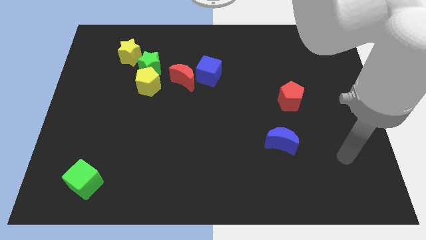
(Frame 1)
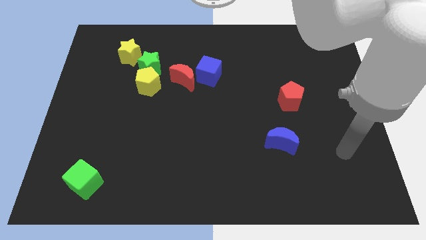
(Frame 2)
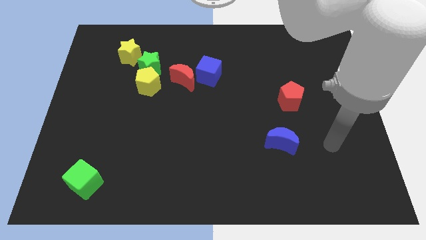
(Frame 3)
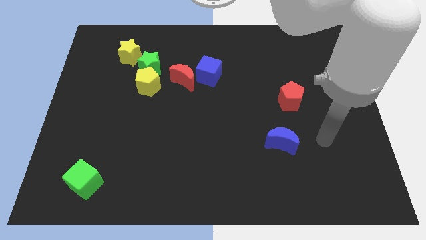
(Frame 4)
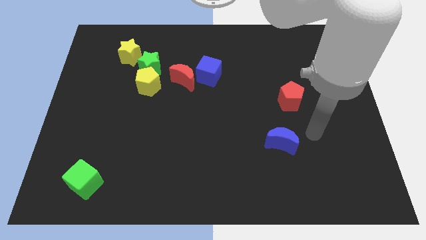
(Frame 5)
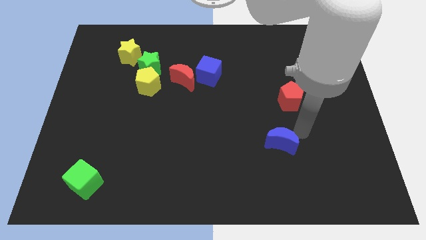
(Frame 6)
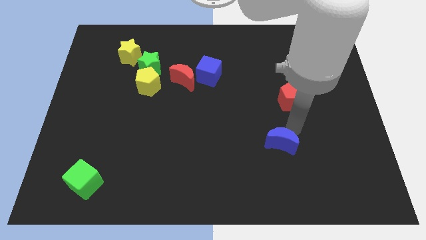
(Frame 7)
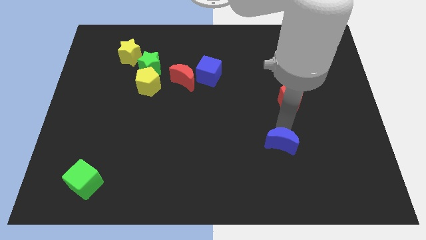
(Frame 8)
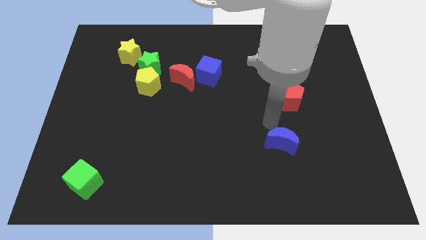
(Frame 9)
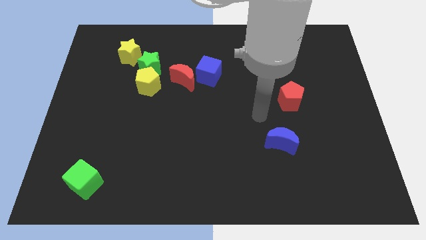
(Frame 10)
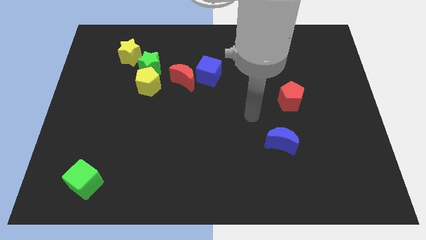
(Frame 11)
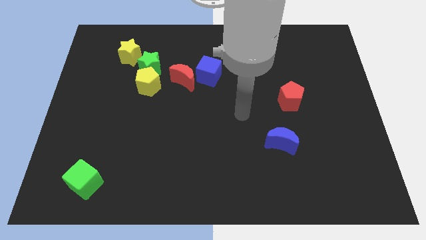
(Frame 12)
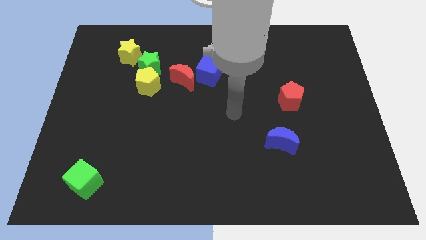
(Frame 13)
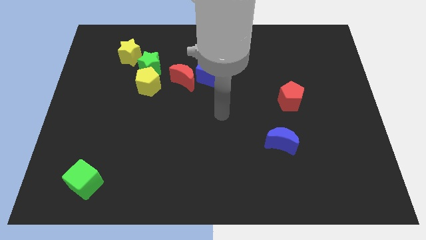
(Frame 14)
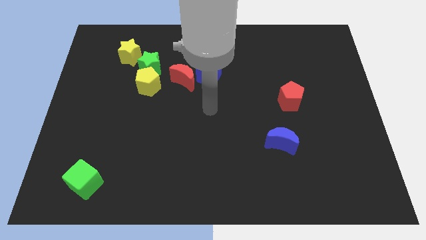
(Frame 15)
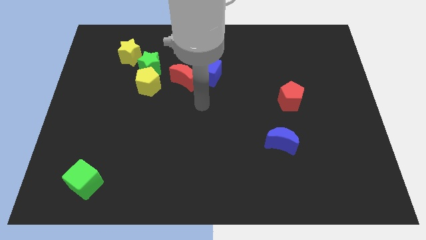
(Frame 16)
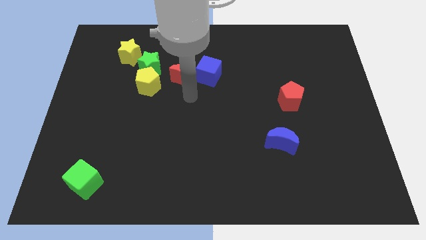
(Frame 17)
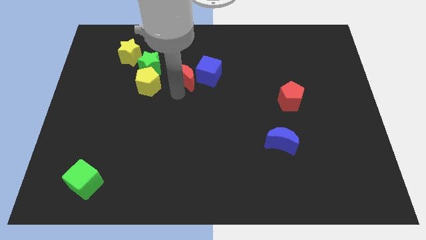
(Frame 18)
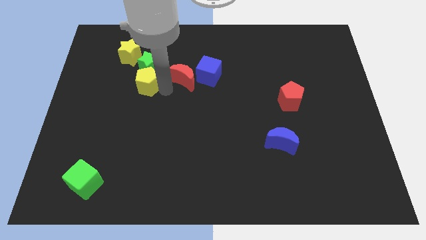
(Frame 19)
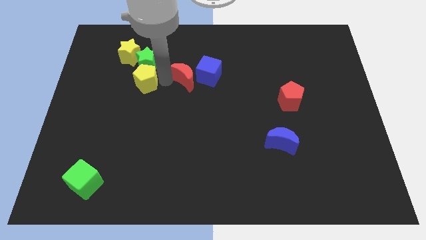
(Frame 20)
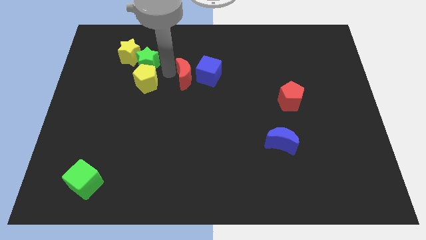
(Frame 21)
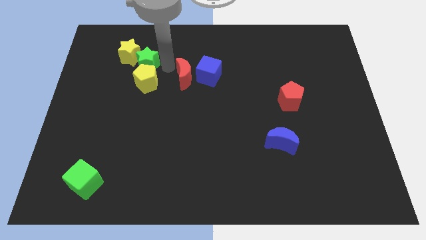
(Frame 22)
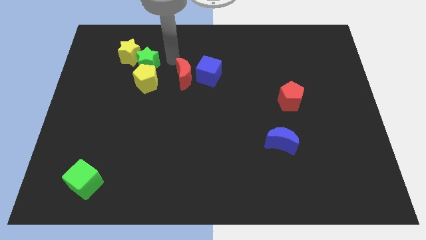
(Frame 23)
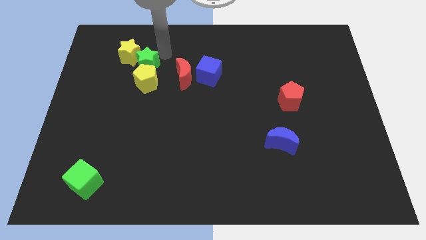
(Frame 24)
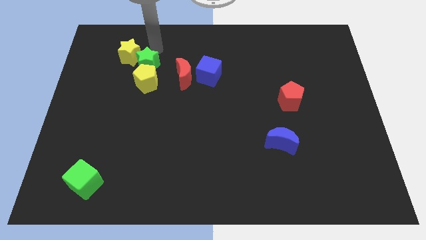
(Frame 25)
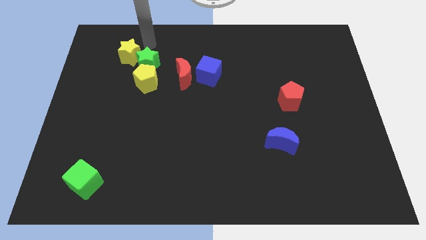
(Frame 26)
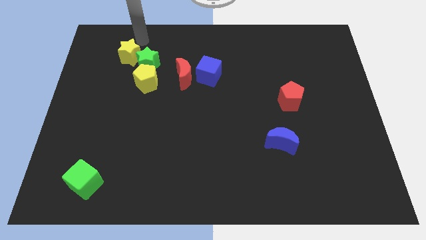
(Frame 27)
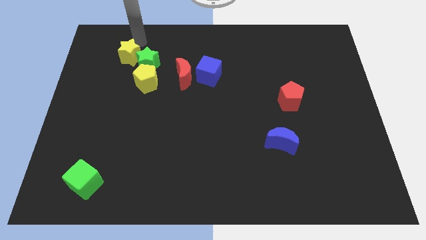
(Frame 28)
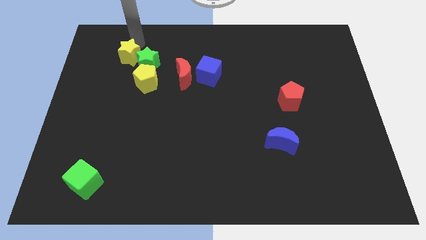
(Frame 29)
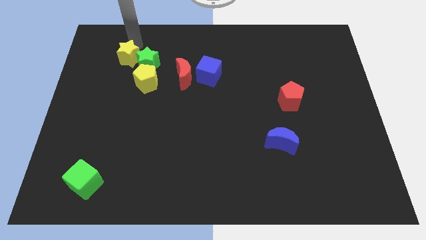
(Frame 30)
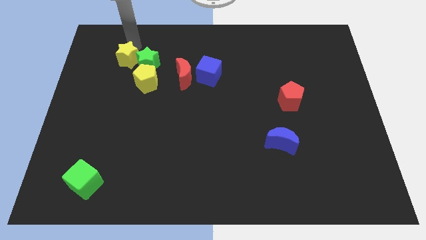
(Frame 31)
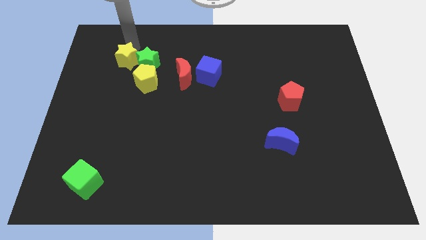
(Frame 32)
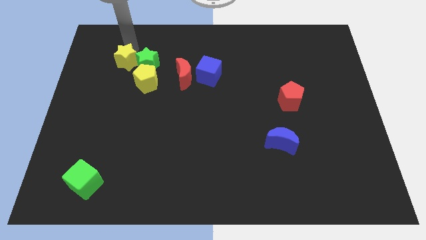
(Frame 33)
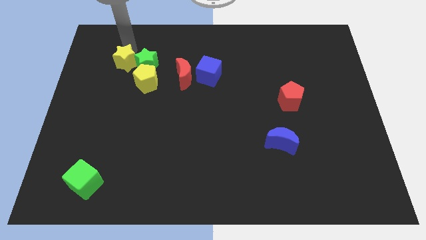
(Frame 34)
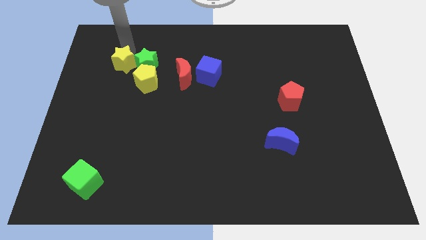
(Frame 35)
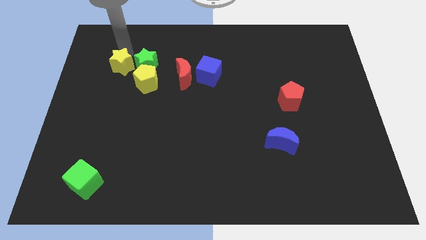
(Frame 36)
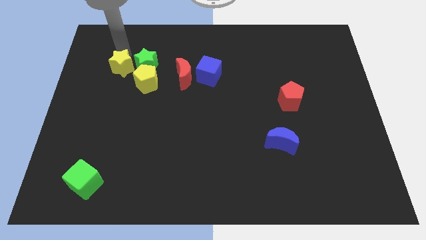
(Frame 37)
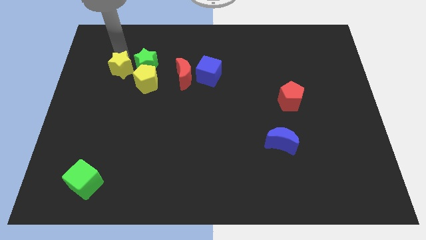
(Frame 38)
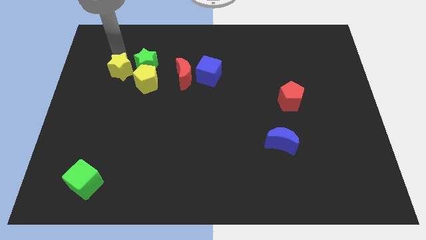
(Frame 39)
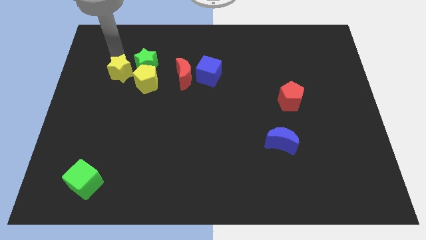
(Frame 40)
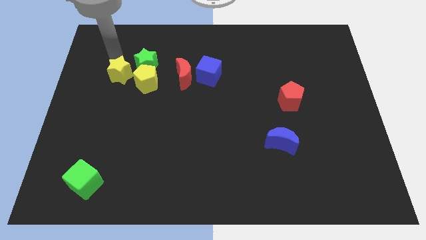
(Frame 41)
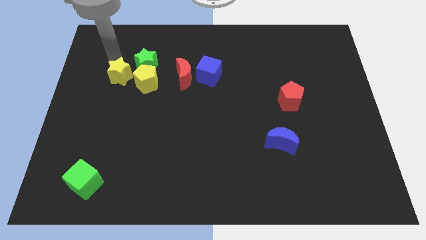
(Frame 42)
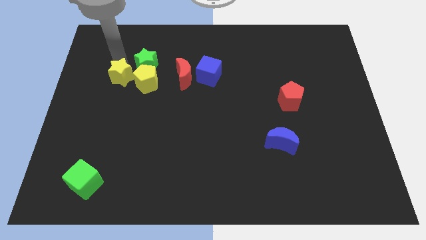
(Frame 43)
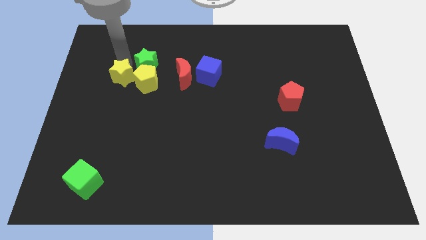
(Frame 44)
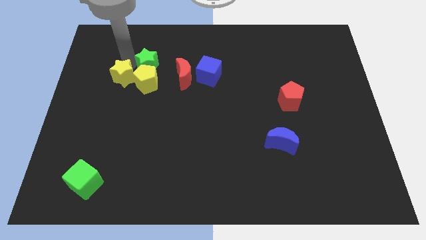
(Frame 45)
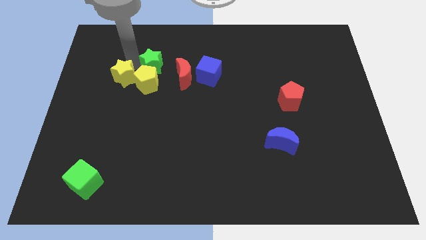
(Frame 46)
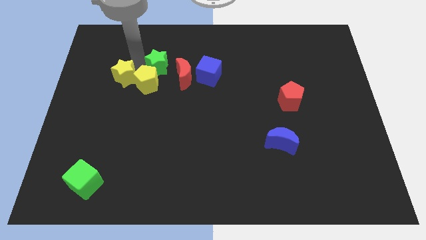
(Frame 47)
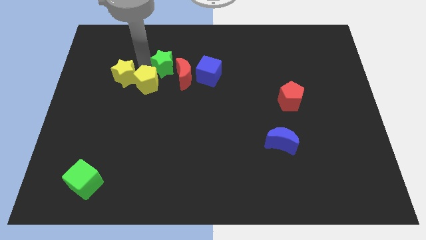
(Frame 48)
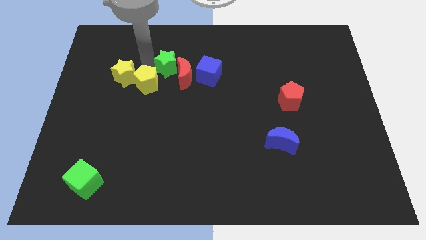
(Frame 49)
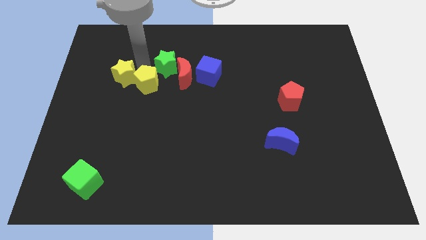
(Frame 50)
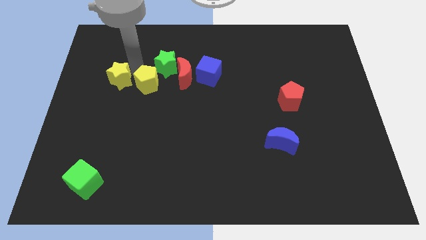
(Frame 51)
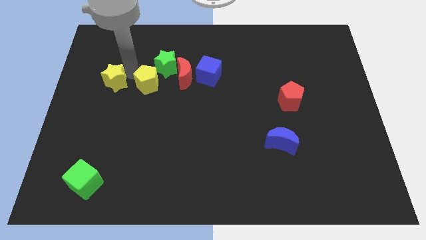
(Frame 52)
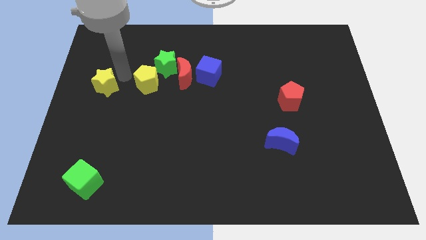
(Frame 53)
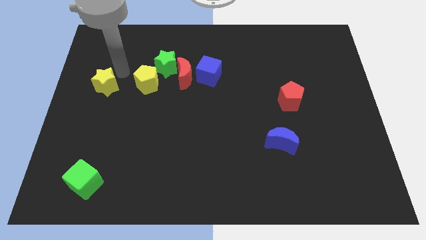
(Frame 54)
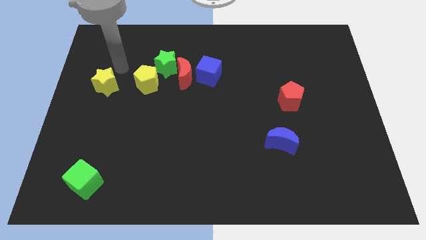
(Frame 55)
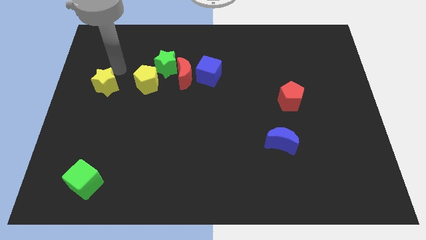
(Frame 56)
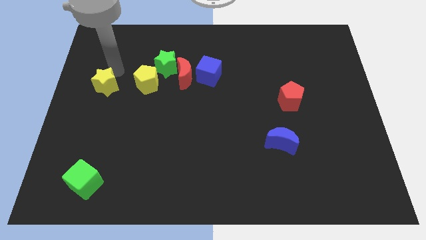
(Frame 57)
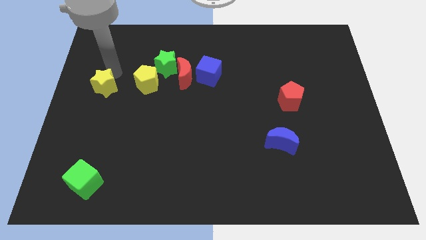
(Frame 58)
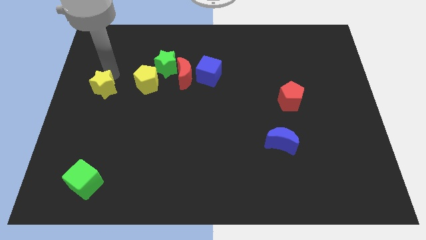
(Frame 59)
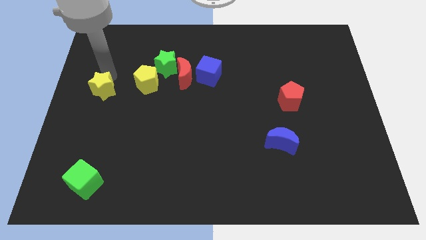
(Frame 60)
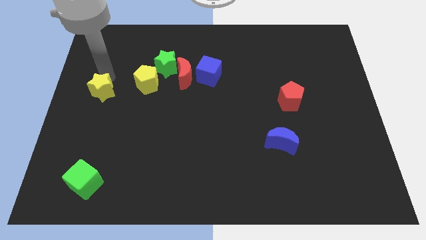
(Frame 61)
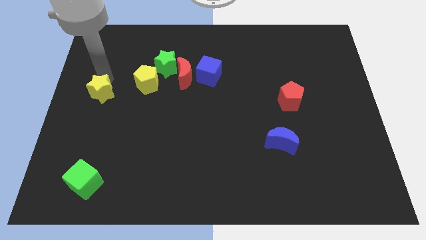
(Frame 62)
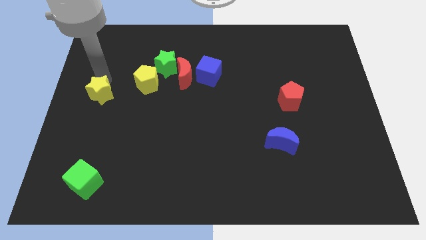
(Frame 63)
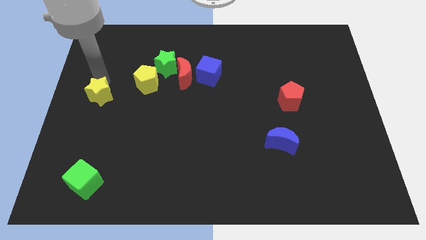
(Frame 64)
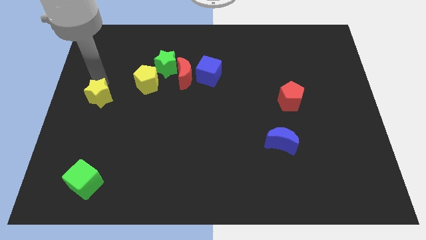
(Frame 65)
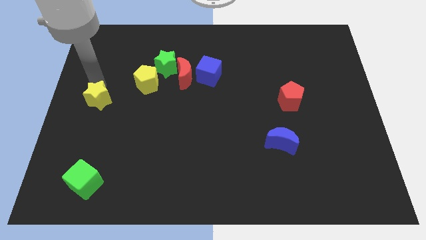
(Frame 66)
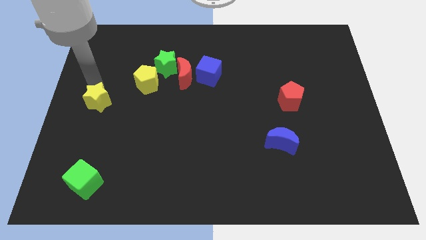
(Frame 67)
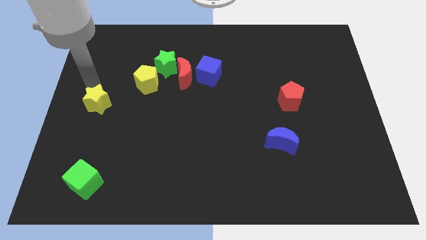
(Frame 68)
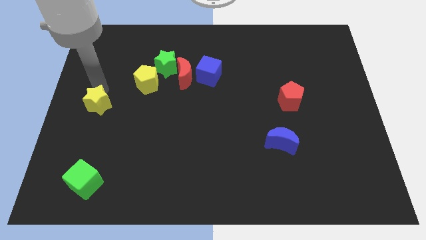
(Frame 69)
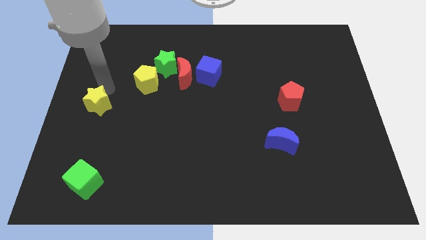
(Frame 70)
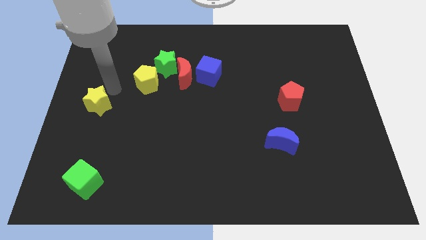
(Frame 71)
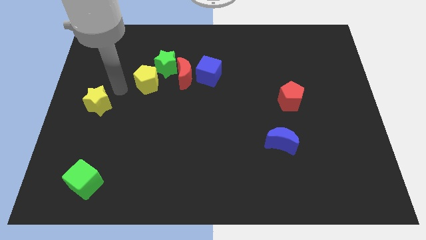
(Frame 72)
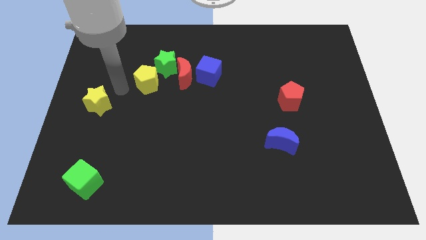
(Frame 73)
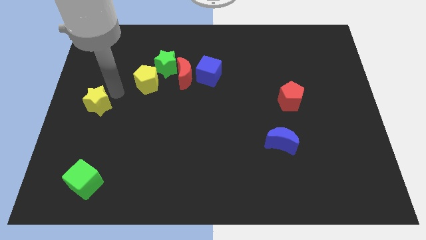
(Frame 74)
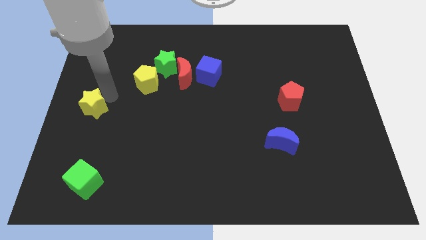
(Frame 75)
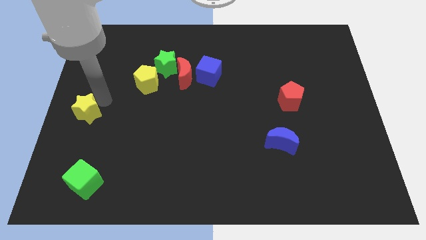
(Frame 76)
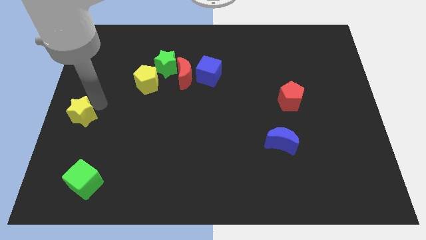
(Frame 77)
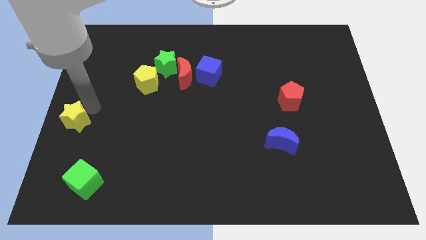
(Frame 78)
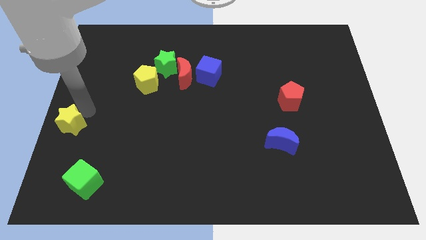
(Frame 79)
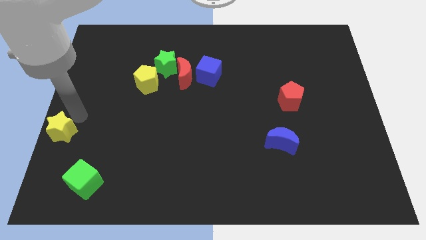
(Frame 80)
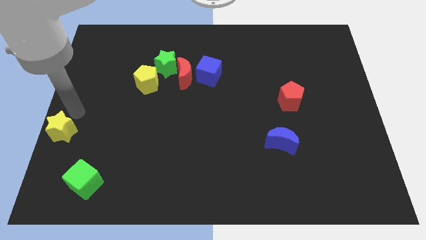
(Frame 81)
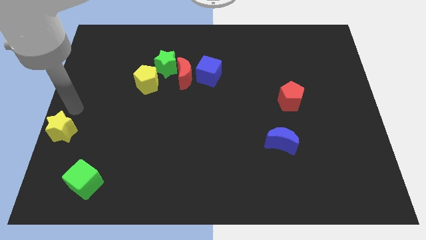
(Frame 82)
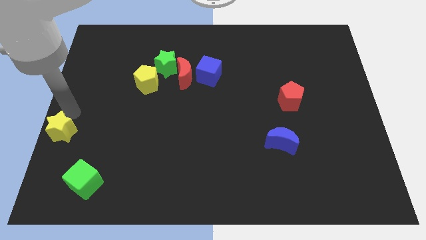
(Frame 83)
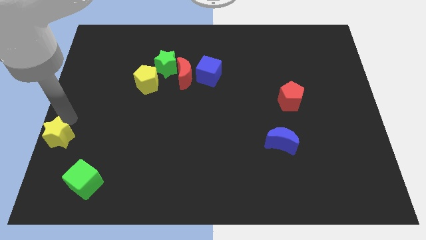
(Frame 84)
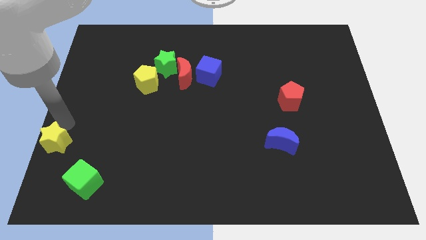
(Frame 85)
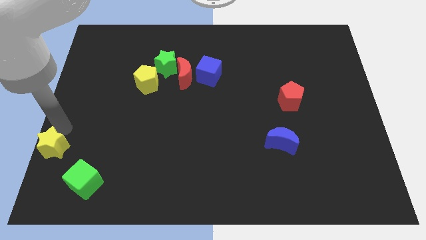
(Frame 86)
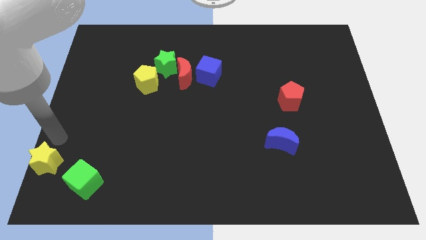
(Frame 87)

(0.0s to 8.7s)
put the yellow star to the lower left corner
